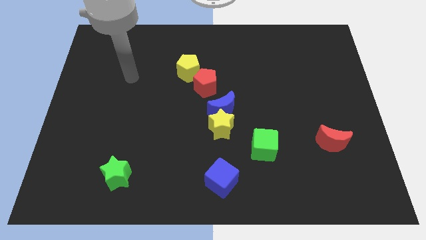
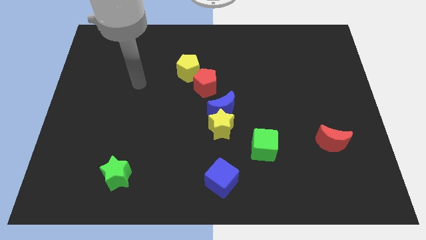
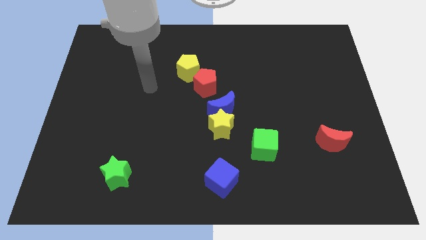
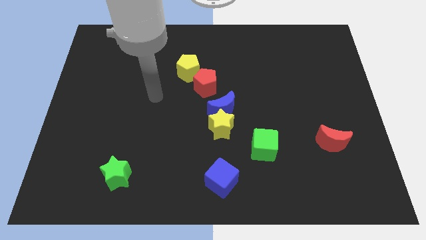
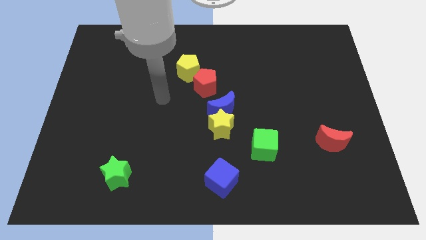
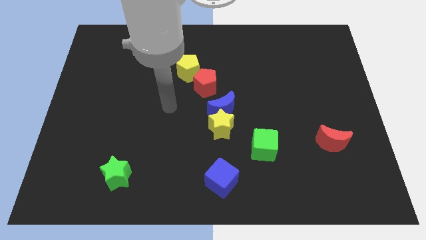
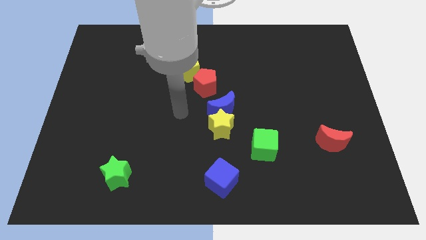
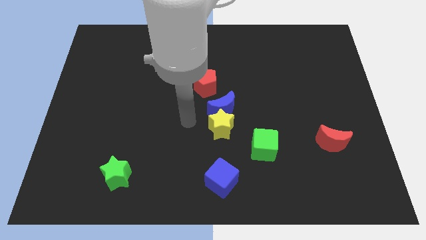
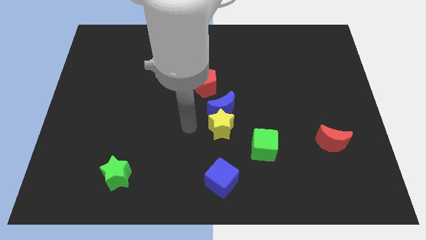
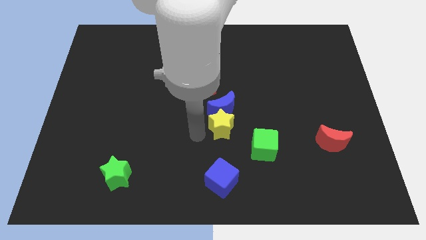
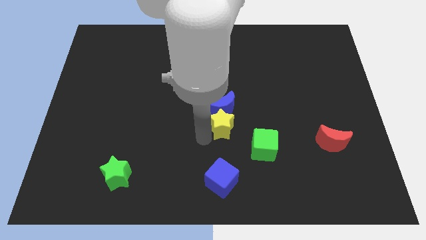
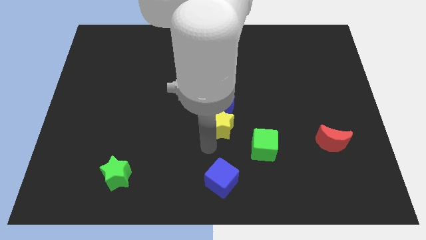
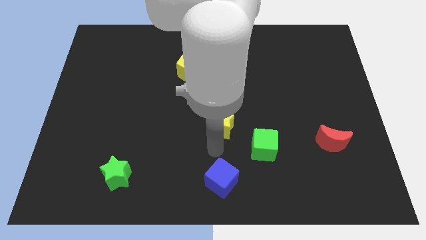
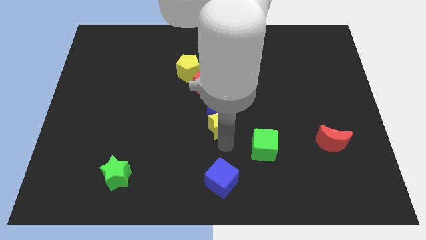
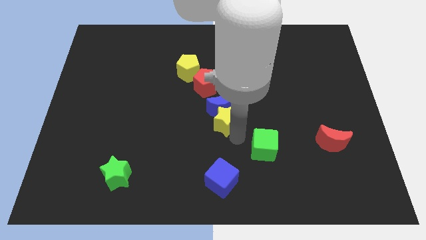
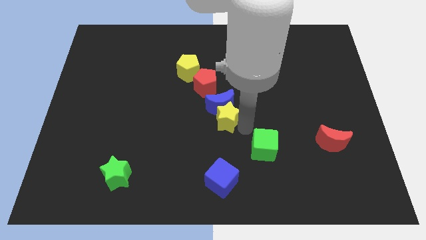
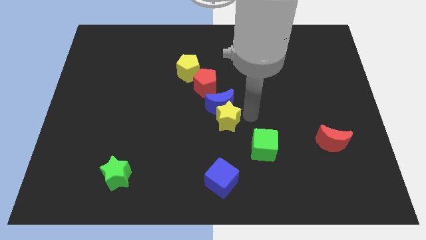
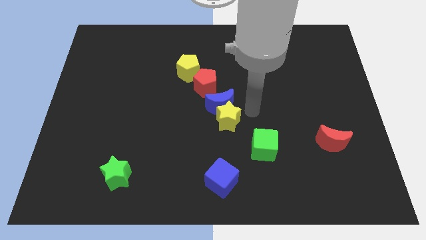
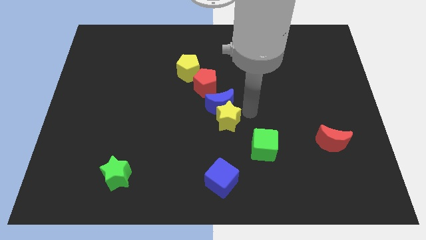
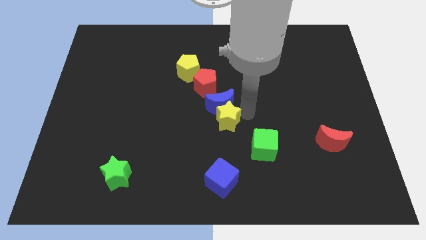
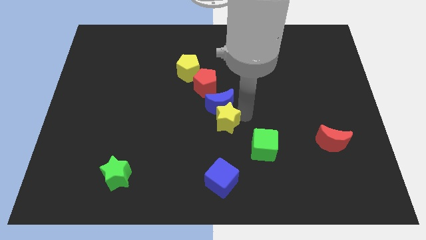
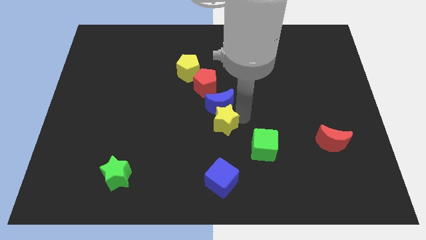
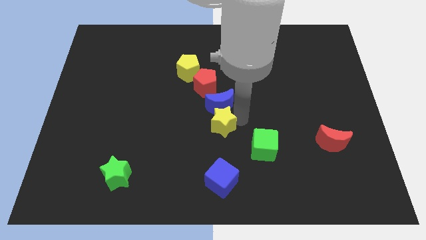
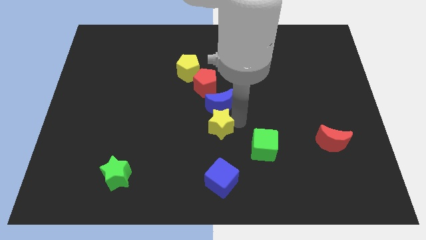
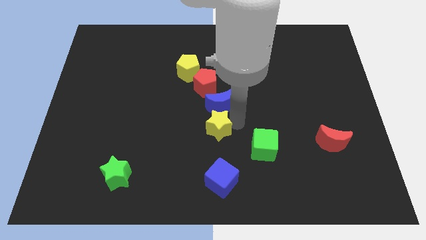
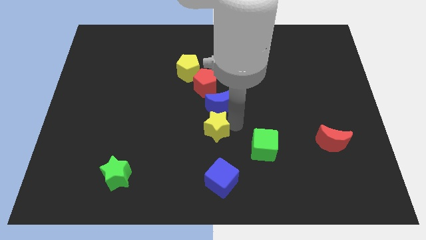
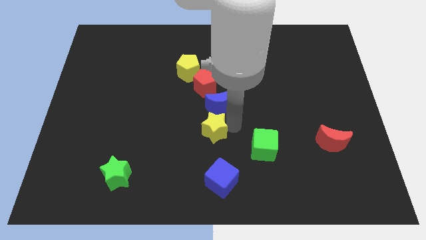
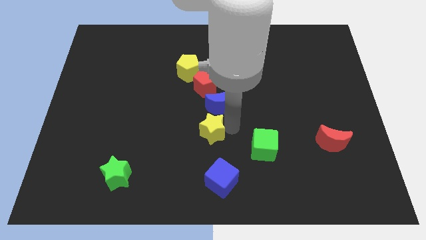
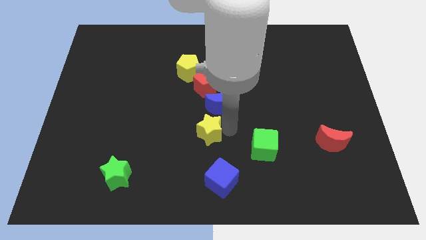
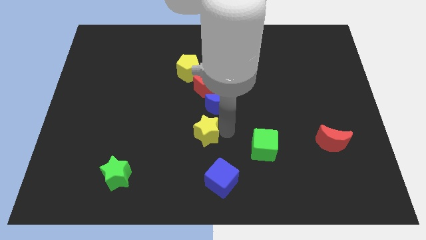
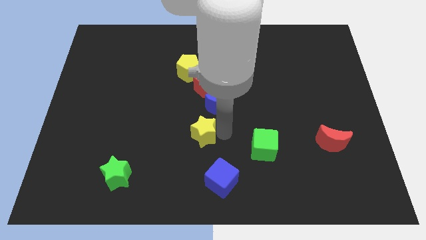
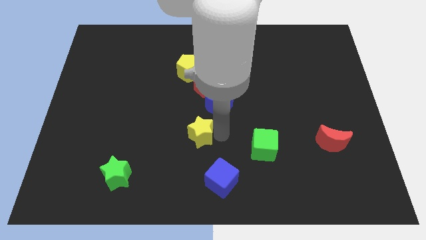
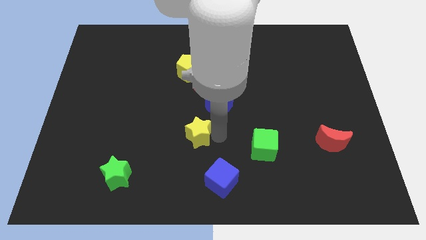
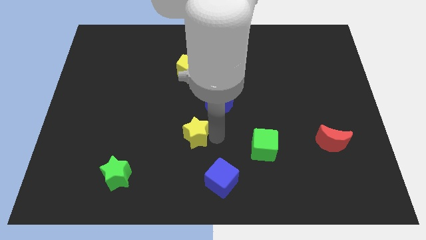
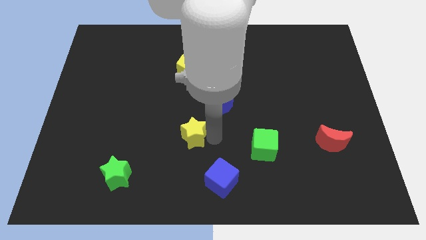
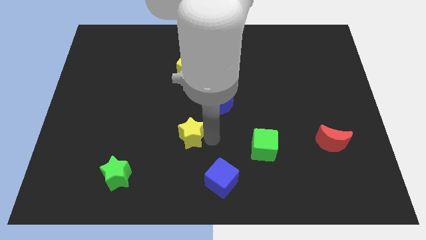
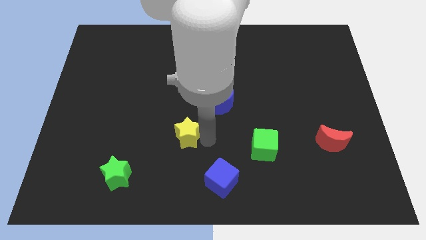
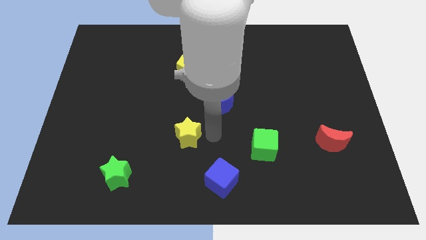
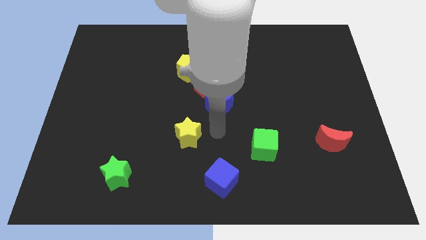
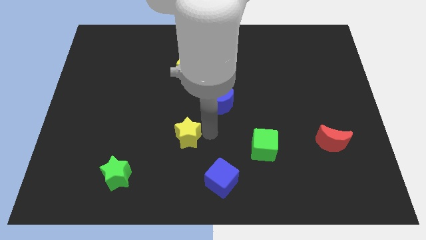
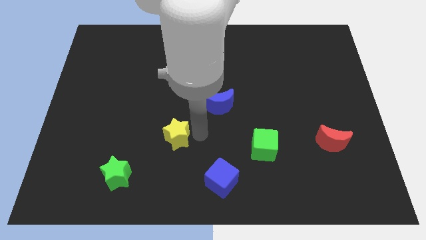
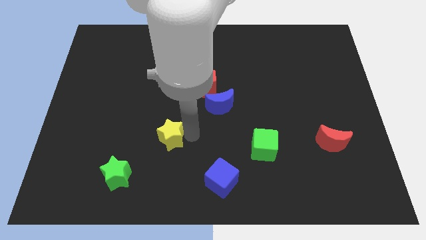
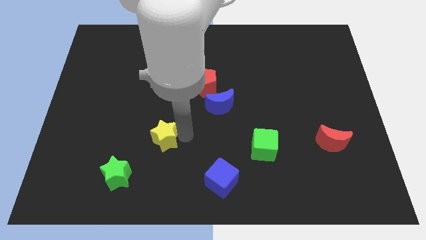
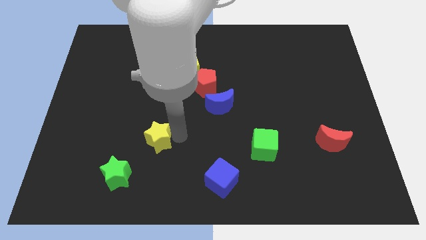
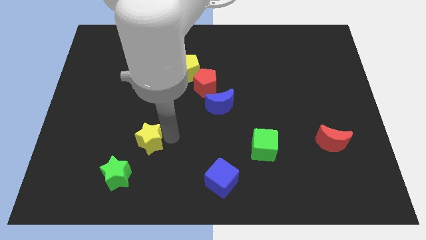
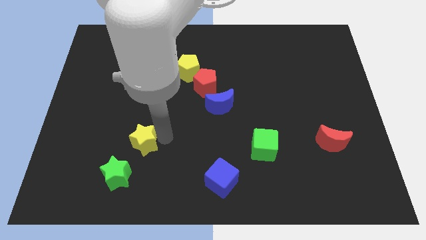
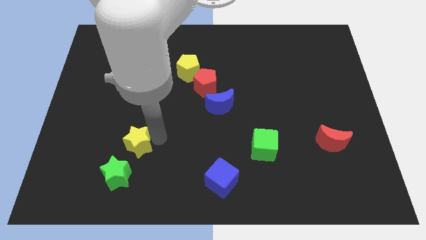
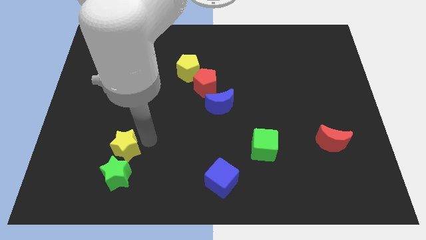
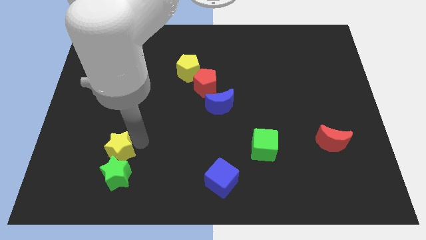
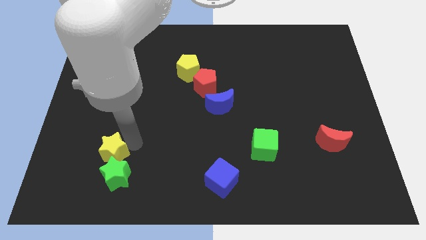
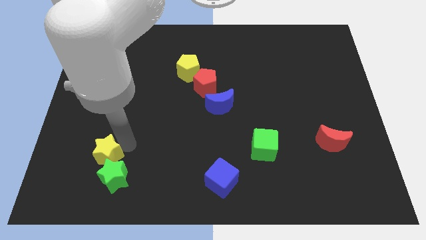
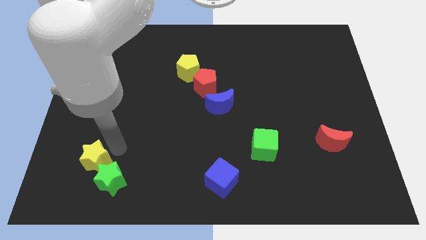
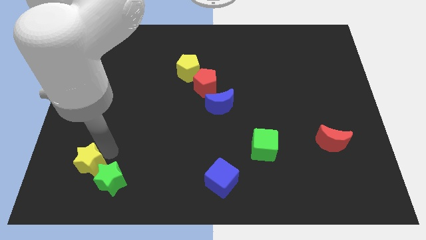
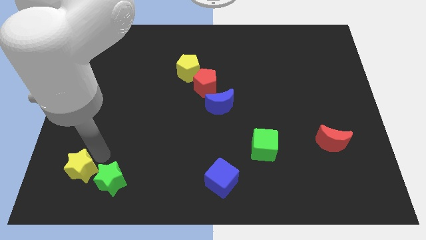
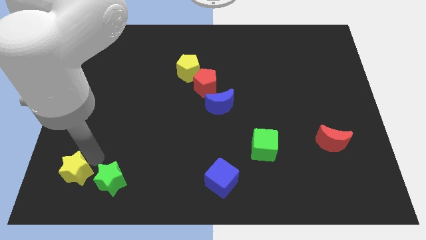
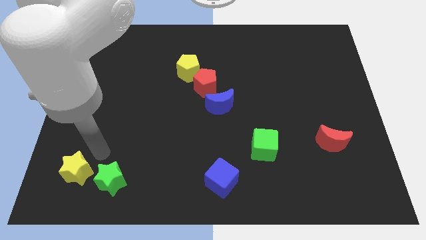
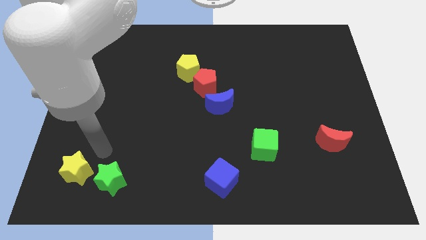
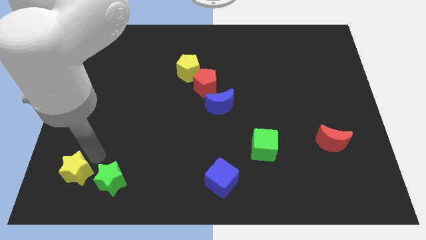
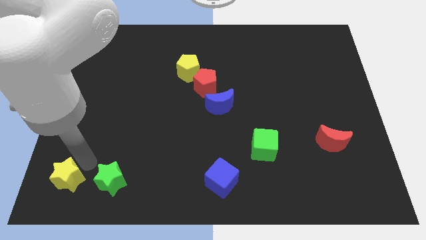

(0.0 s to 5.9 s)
put the yellow star to the bottom left corner
